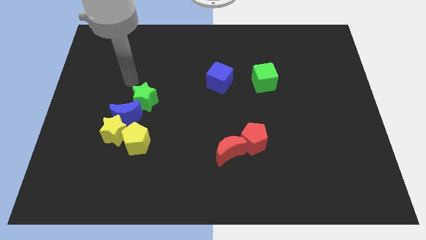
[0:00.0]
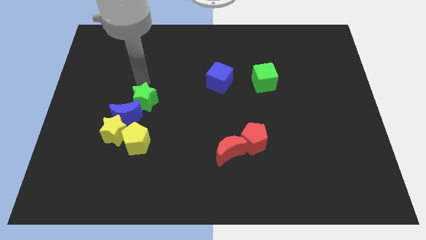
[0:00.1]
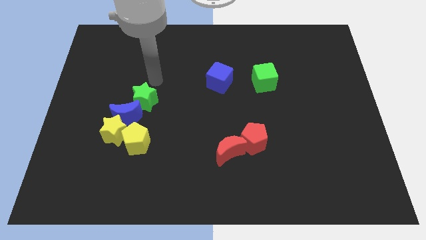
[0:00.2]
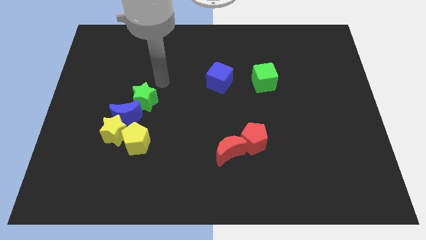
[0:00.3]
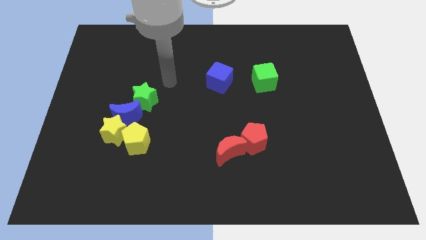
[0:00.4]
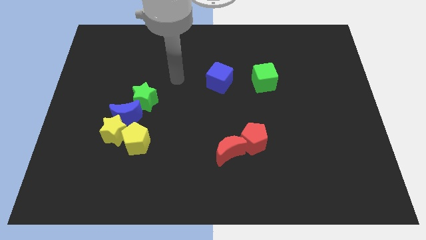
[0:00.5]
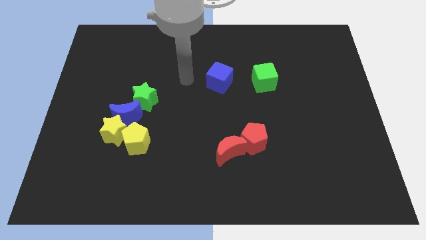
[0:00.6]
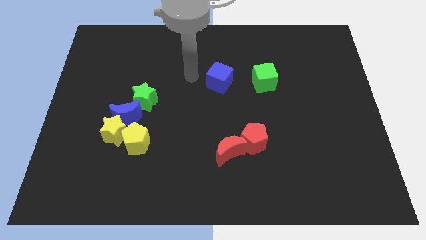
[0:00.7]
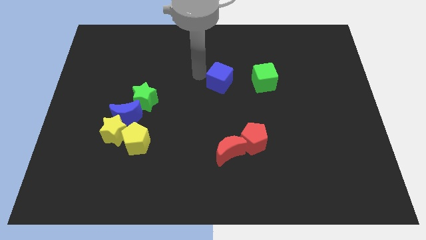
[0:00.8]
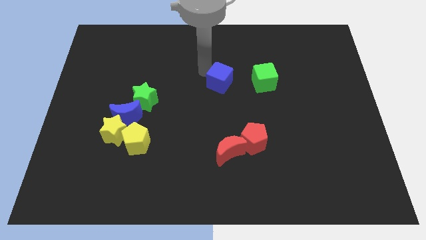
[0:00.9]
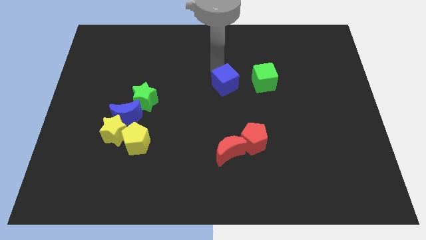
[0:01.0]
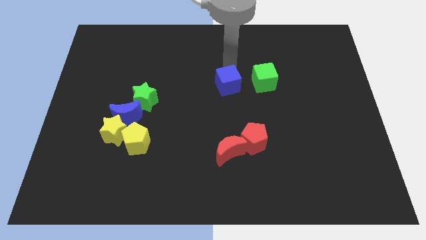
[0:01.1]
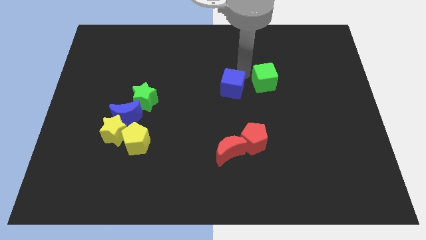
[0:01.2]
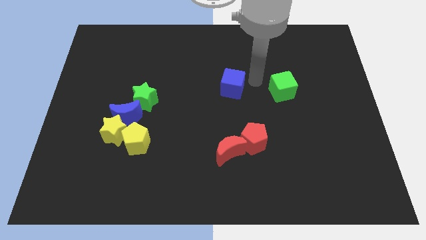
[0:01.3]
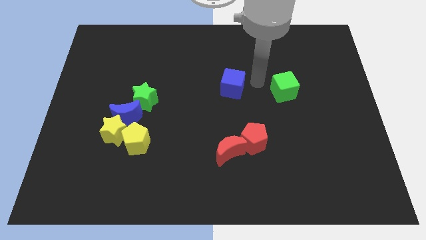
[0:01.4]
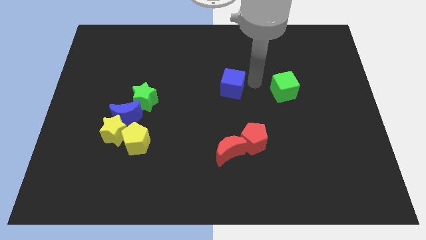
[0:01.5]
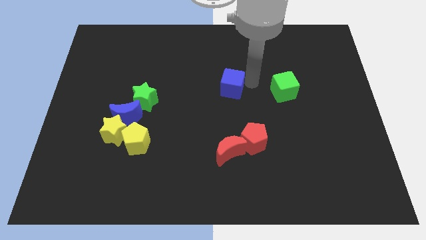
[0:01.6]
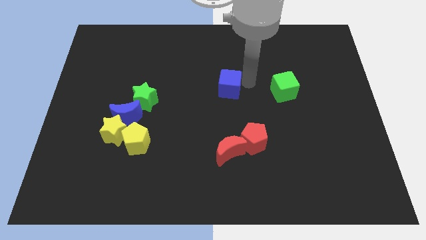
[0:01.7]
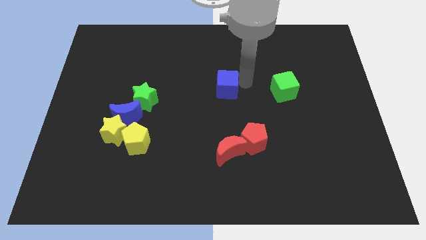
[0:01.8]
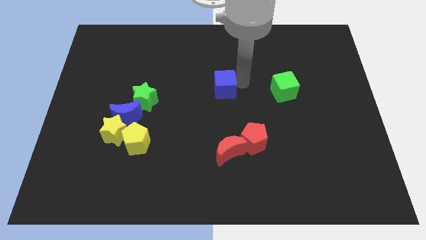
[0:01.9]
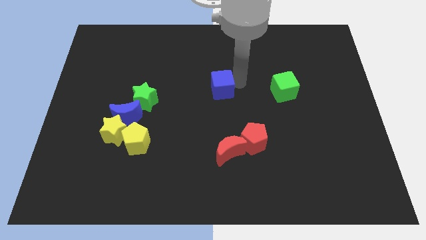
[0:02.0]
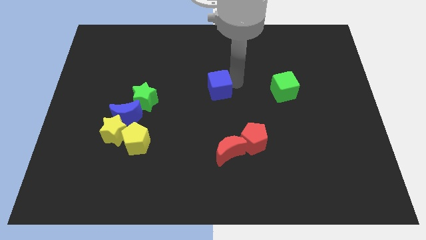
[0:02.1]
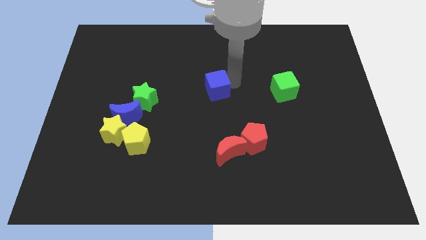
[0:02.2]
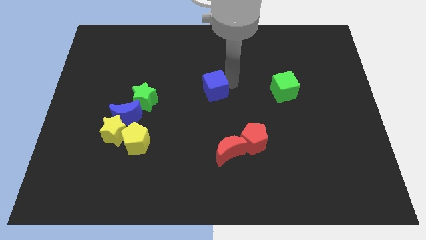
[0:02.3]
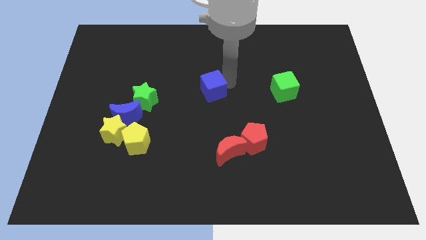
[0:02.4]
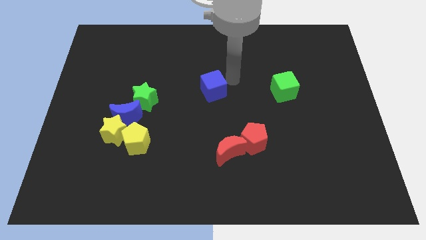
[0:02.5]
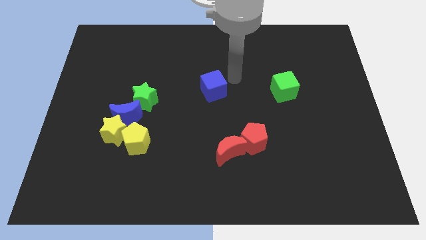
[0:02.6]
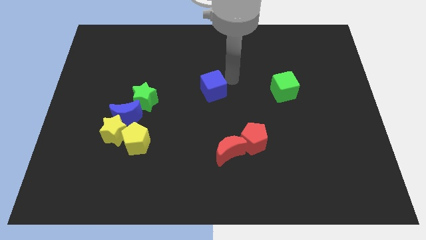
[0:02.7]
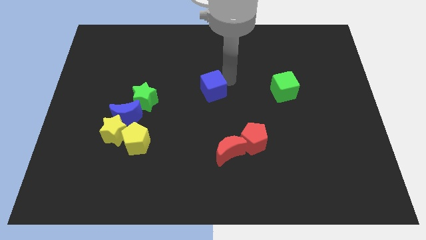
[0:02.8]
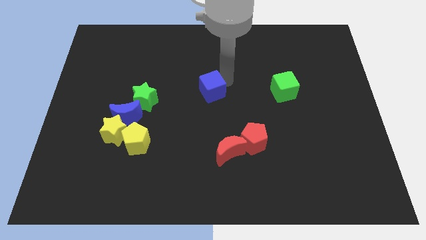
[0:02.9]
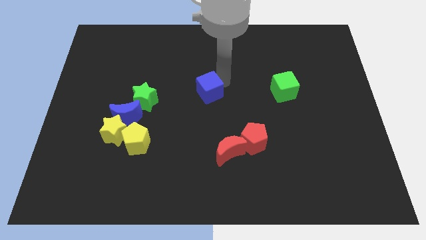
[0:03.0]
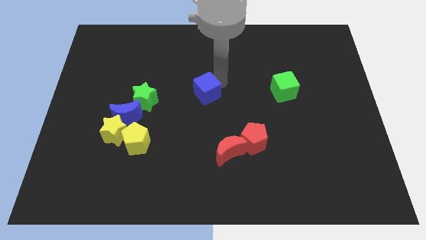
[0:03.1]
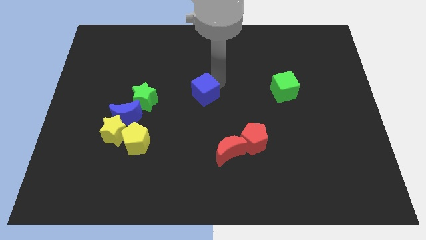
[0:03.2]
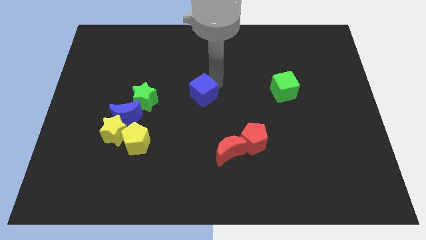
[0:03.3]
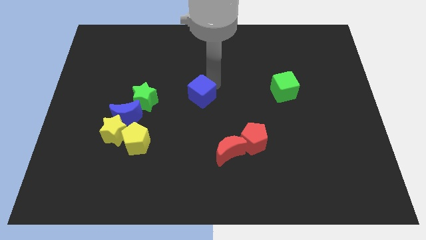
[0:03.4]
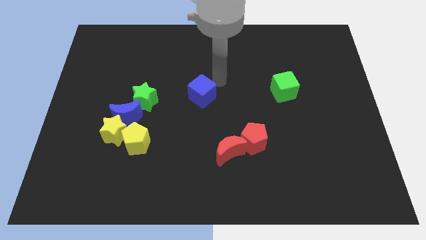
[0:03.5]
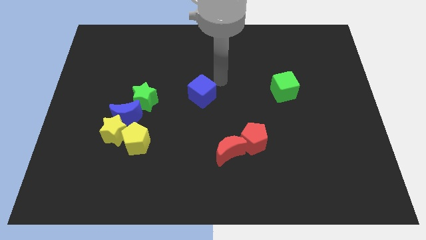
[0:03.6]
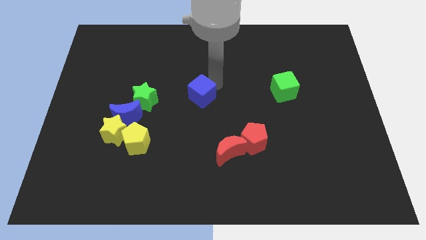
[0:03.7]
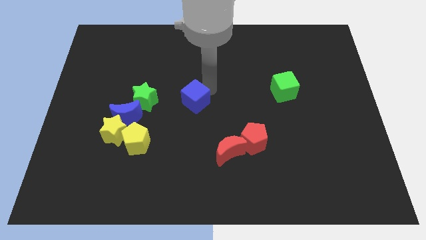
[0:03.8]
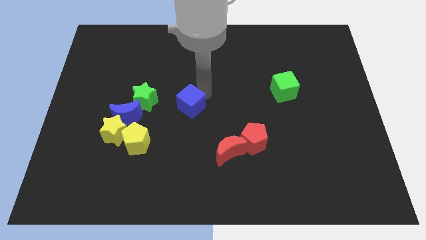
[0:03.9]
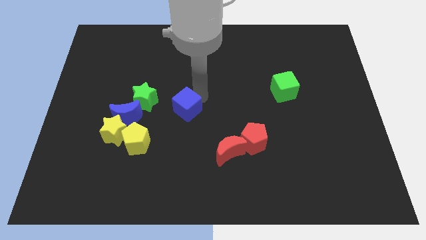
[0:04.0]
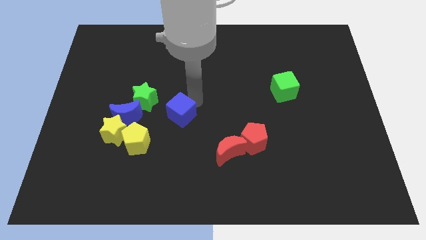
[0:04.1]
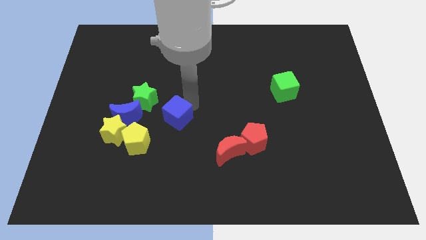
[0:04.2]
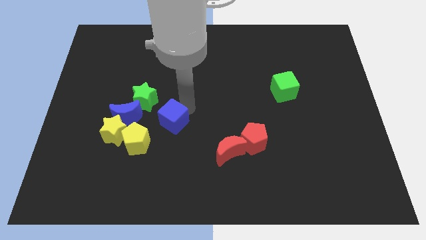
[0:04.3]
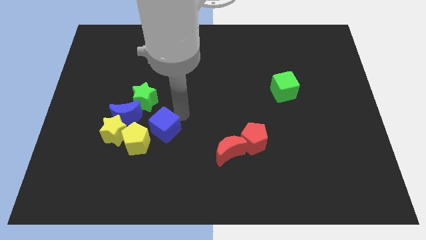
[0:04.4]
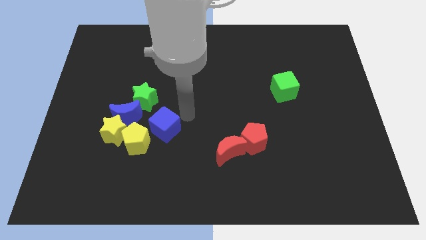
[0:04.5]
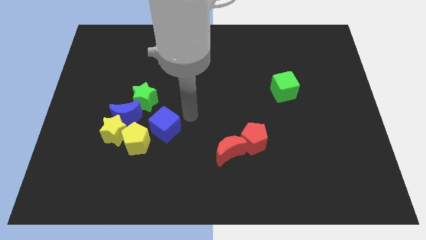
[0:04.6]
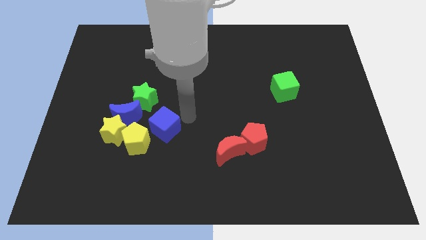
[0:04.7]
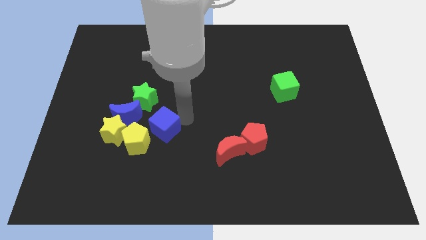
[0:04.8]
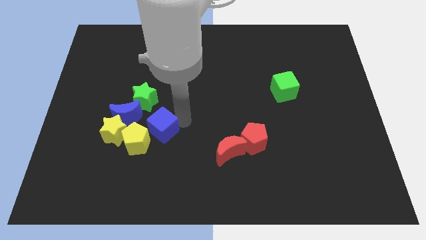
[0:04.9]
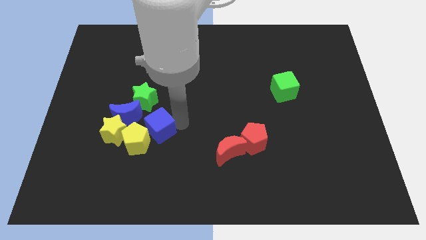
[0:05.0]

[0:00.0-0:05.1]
slide the blue cube towards the yellow pentagon

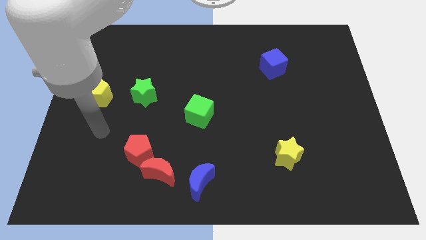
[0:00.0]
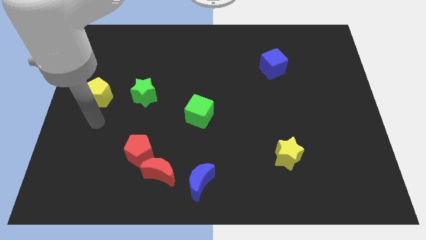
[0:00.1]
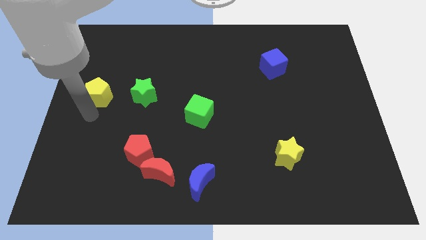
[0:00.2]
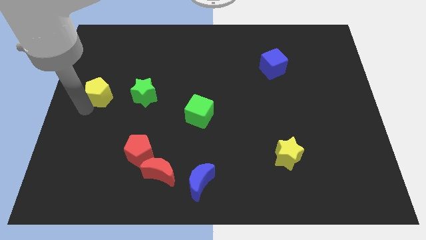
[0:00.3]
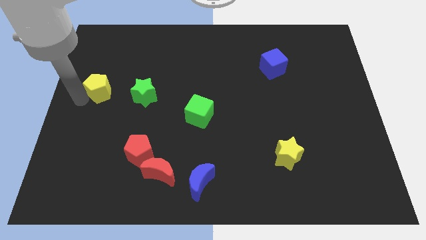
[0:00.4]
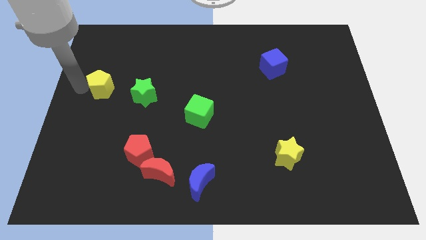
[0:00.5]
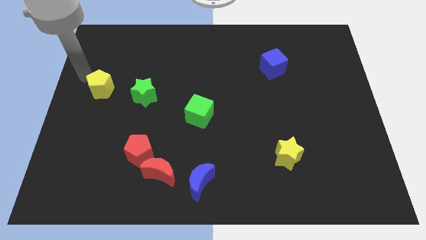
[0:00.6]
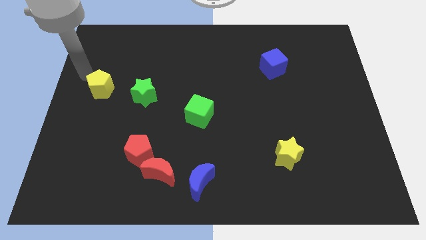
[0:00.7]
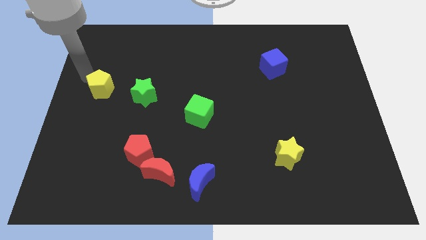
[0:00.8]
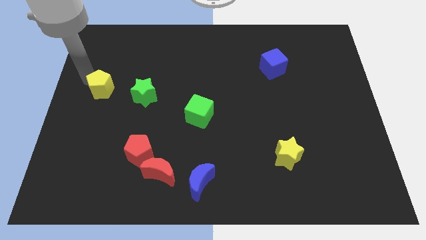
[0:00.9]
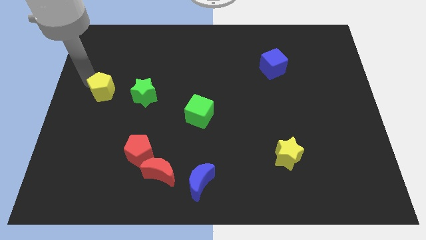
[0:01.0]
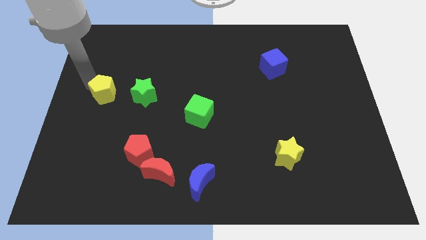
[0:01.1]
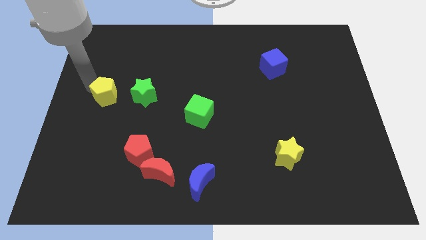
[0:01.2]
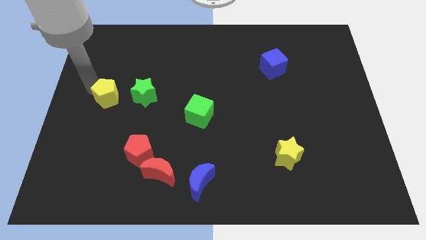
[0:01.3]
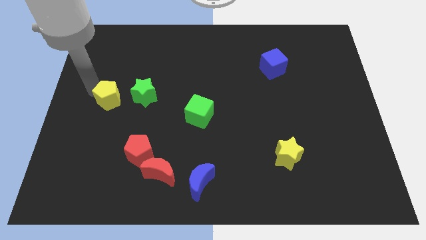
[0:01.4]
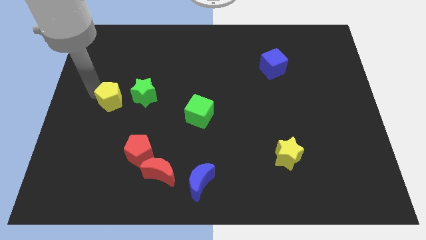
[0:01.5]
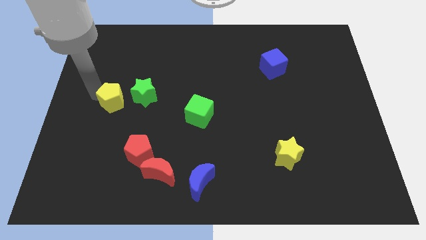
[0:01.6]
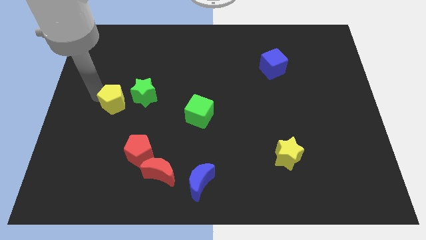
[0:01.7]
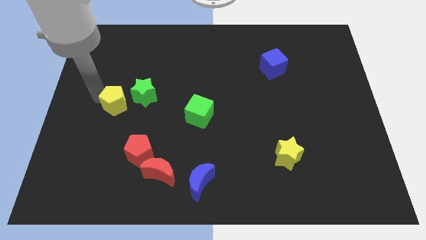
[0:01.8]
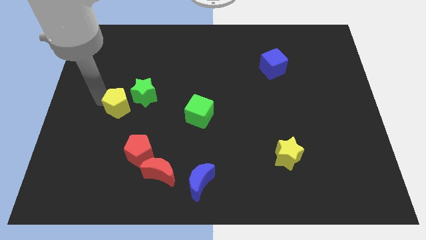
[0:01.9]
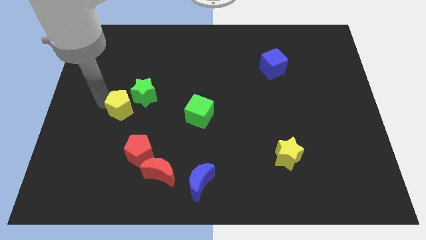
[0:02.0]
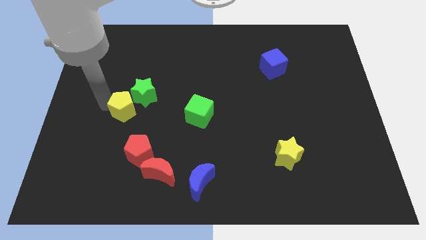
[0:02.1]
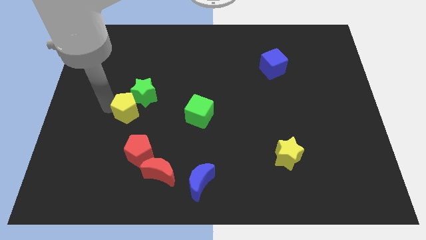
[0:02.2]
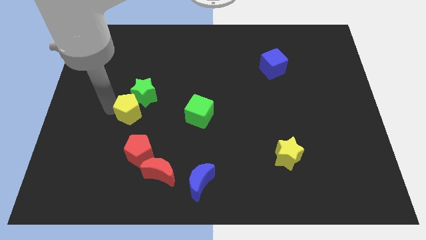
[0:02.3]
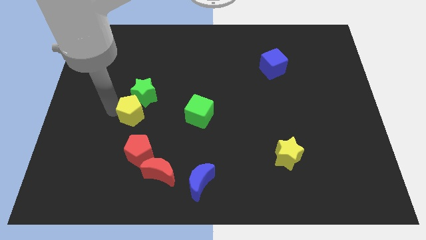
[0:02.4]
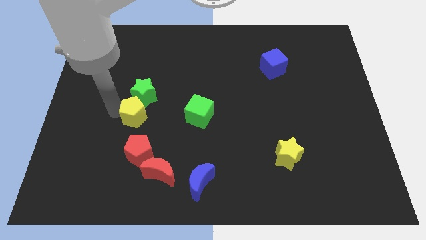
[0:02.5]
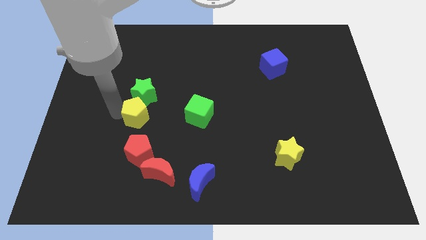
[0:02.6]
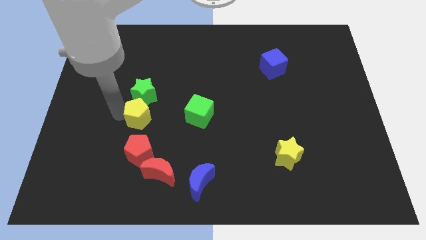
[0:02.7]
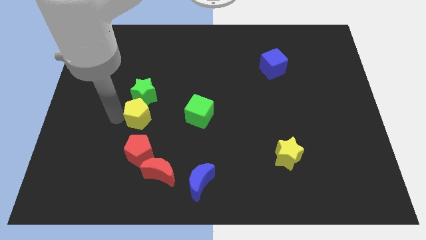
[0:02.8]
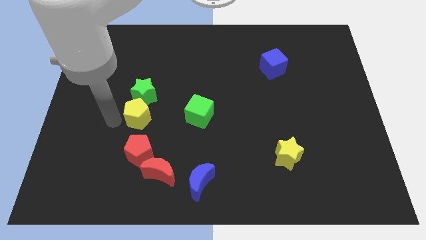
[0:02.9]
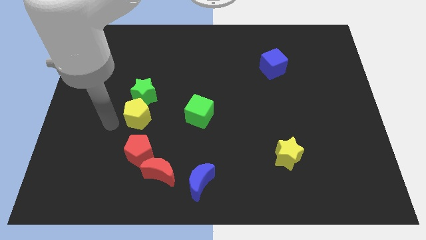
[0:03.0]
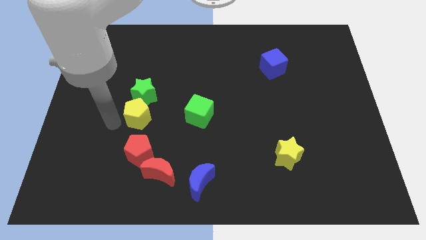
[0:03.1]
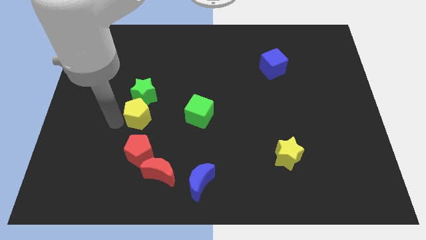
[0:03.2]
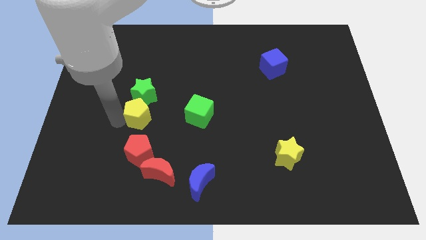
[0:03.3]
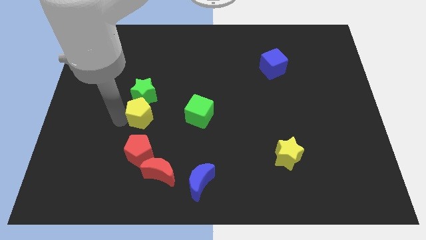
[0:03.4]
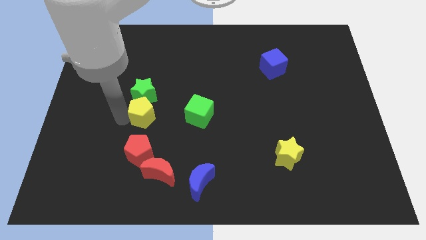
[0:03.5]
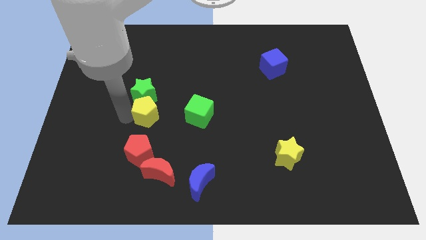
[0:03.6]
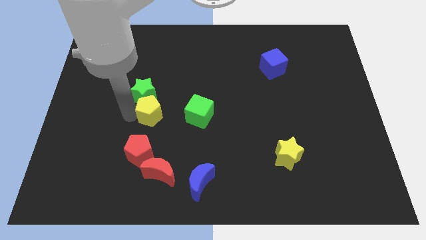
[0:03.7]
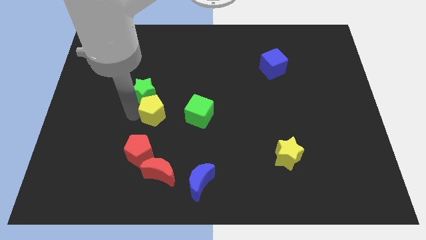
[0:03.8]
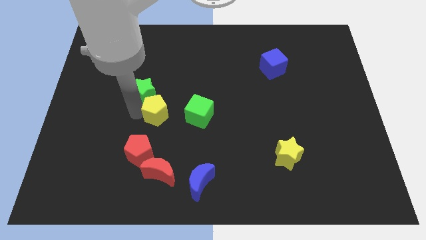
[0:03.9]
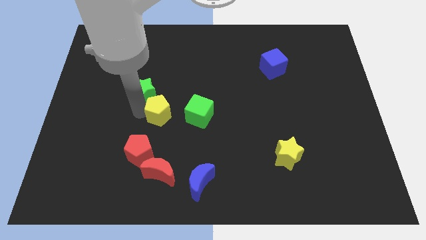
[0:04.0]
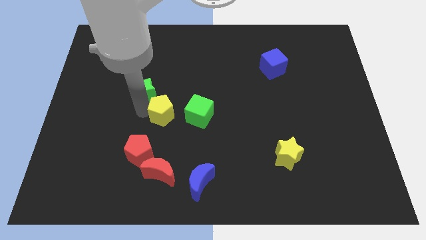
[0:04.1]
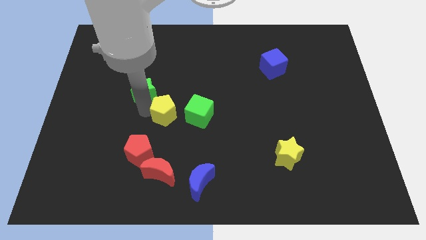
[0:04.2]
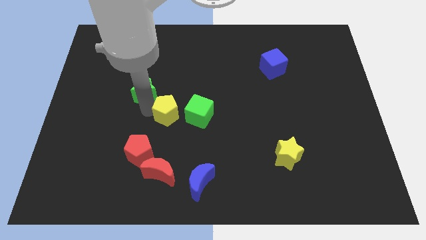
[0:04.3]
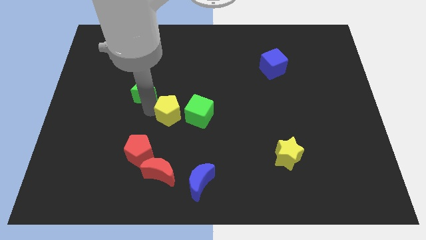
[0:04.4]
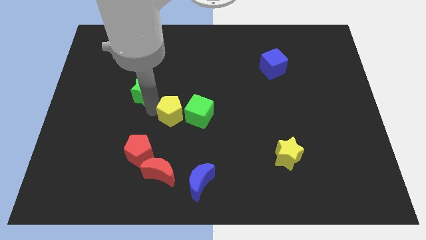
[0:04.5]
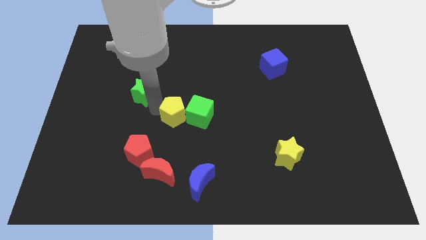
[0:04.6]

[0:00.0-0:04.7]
put the yellow pentagon close to the green cube
